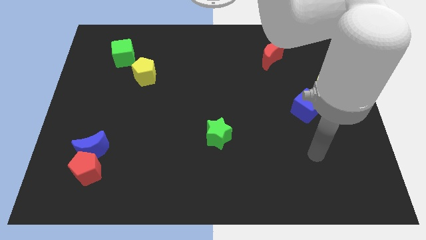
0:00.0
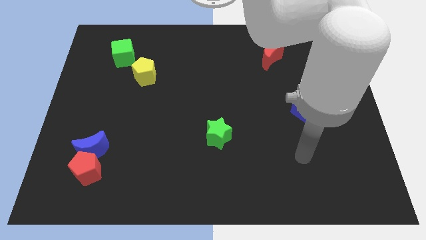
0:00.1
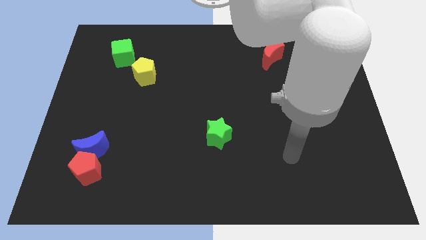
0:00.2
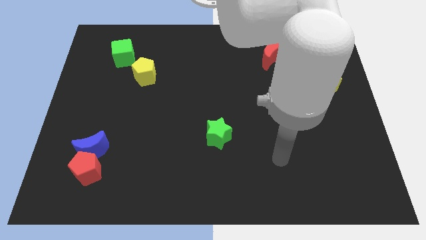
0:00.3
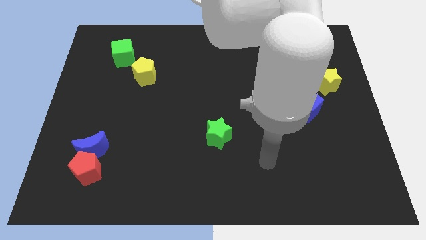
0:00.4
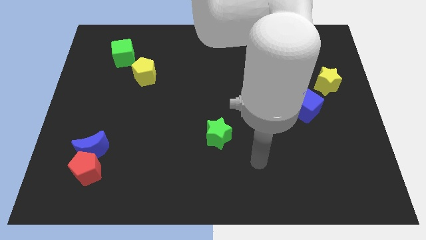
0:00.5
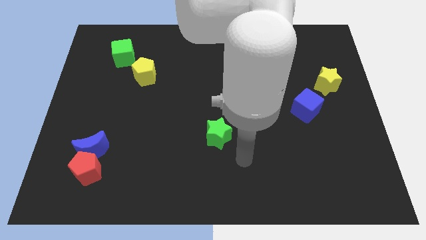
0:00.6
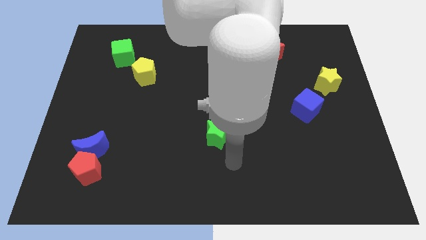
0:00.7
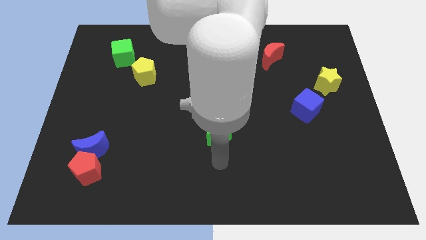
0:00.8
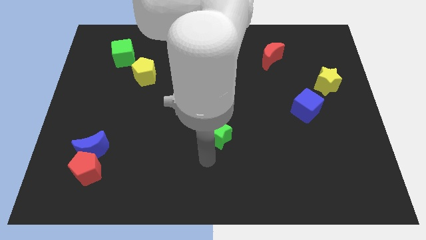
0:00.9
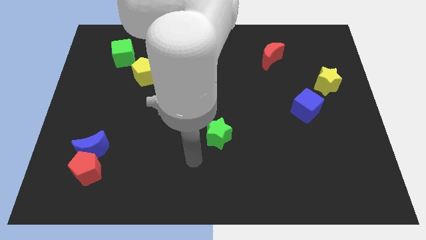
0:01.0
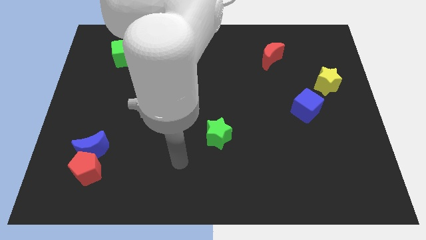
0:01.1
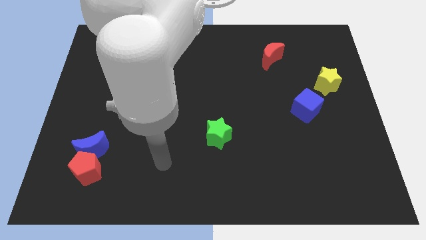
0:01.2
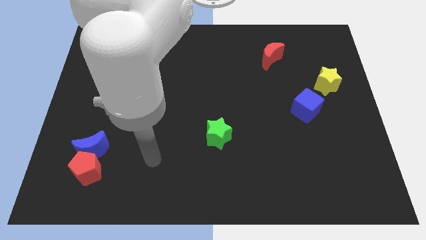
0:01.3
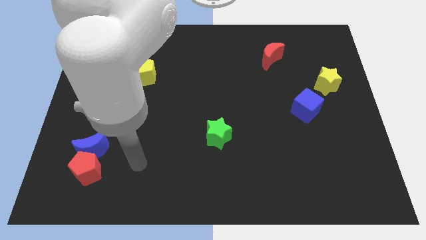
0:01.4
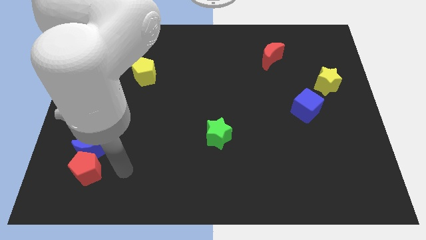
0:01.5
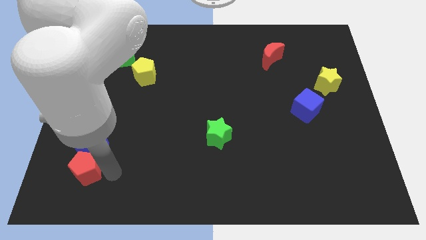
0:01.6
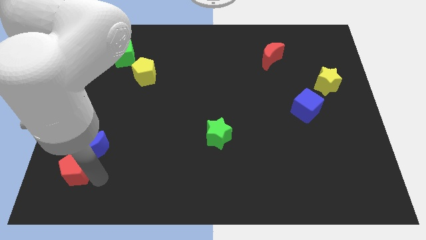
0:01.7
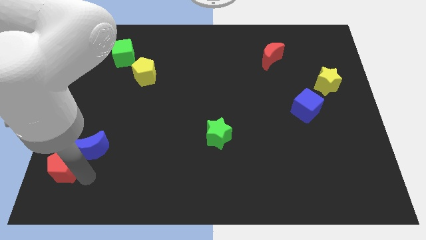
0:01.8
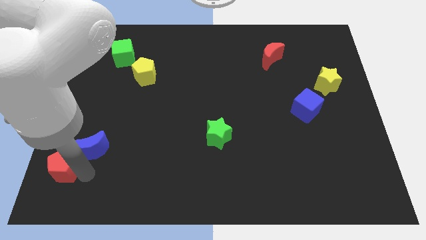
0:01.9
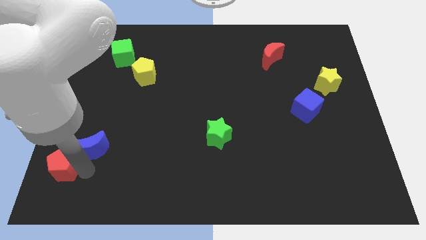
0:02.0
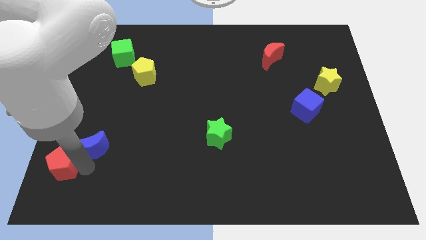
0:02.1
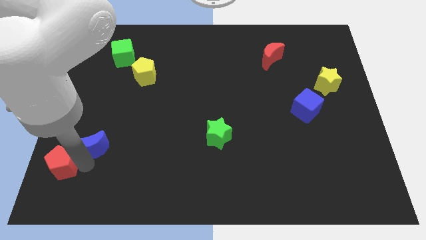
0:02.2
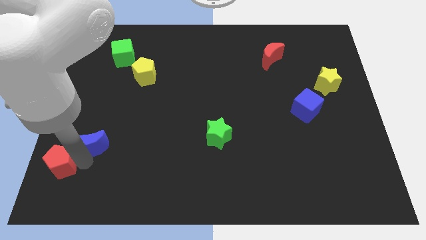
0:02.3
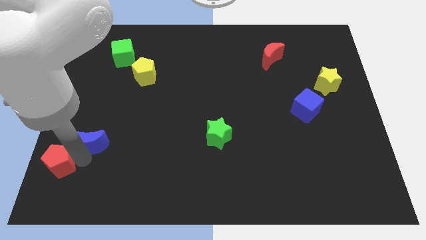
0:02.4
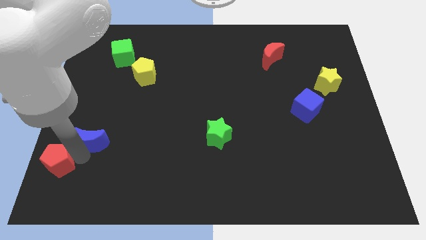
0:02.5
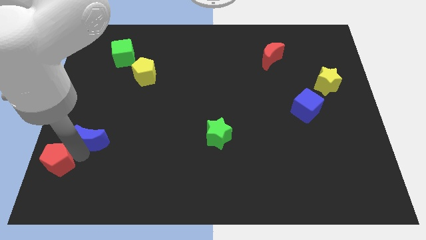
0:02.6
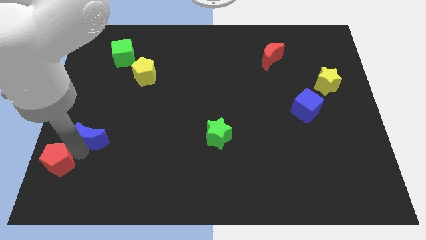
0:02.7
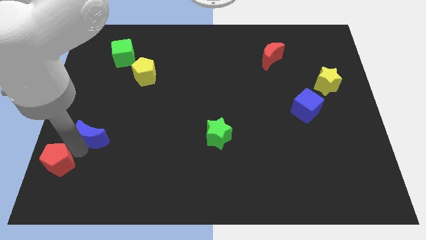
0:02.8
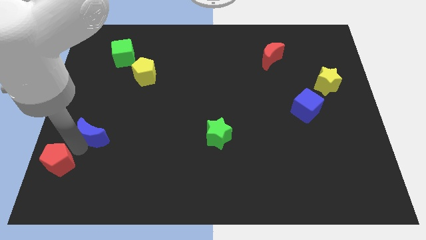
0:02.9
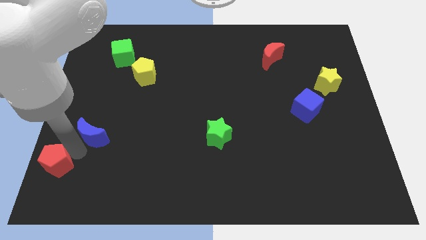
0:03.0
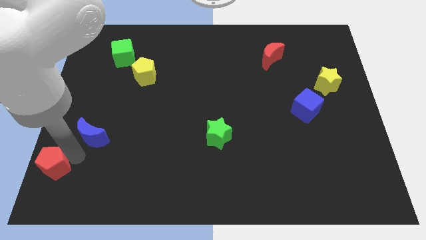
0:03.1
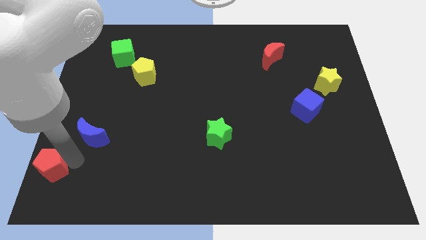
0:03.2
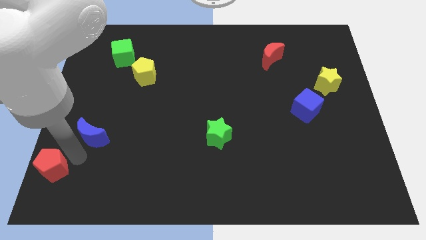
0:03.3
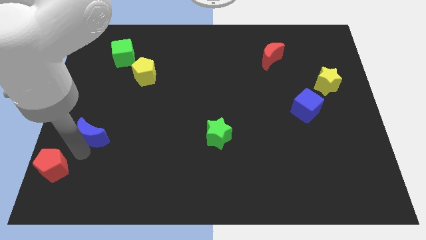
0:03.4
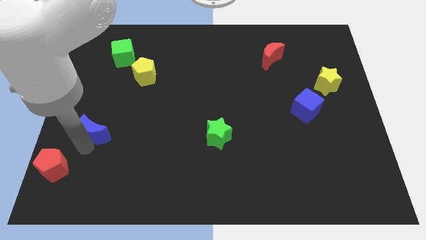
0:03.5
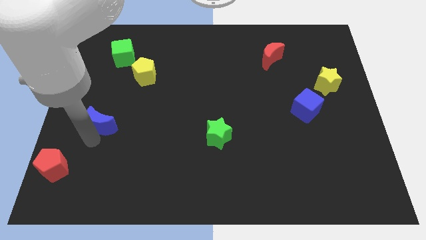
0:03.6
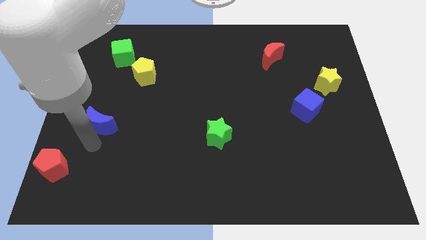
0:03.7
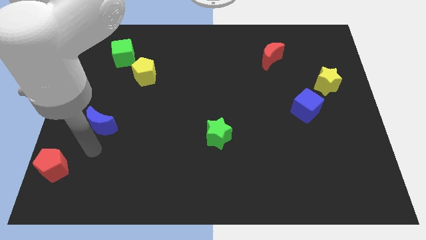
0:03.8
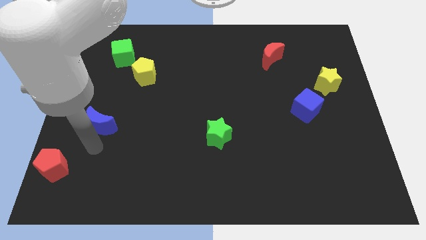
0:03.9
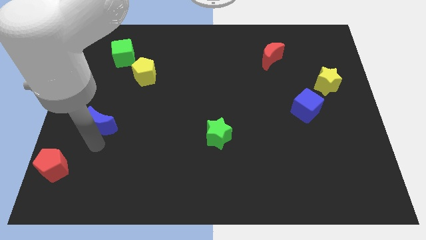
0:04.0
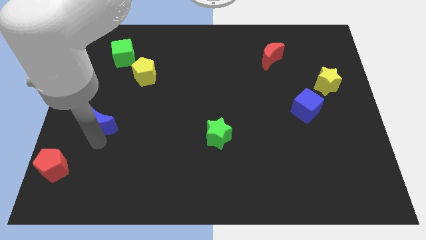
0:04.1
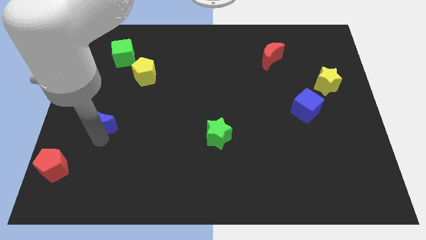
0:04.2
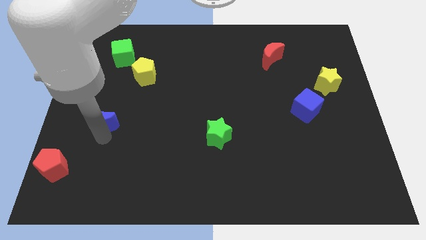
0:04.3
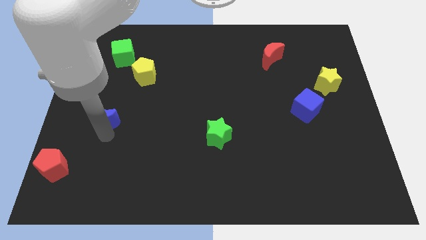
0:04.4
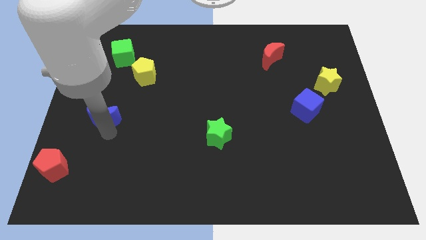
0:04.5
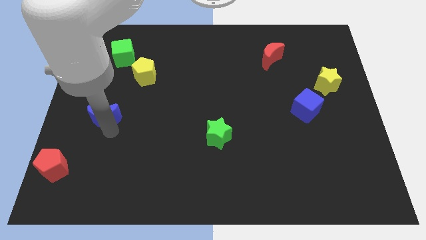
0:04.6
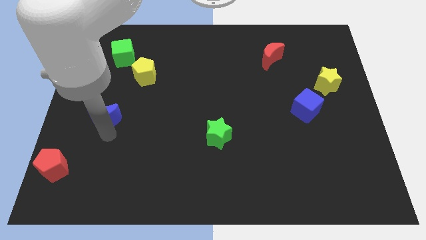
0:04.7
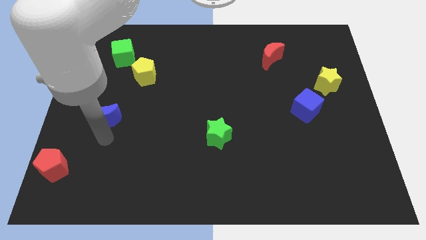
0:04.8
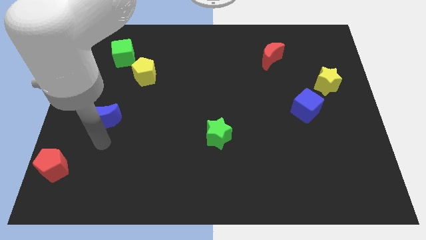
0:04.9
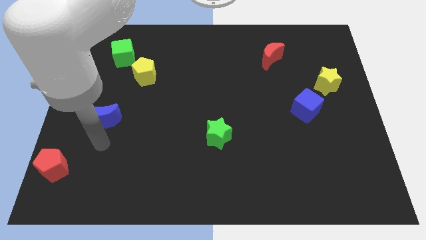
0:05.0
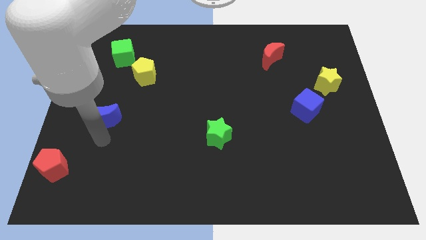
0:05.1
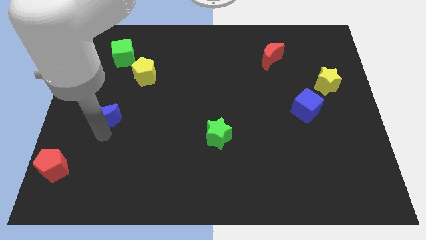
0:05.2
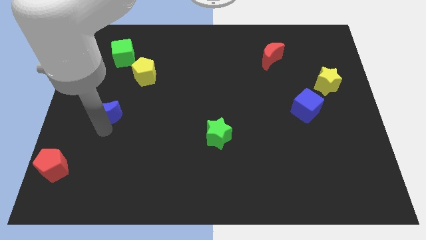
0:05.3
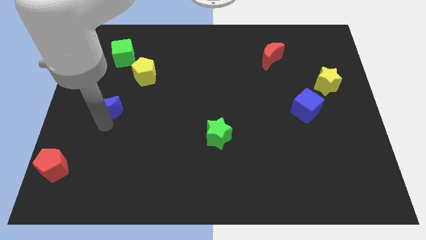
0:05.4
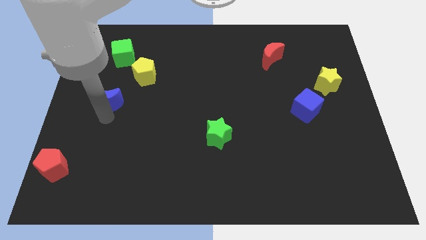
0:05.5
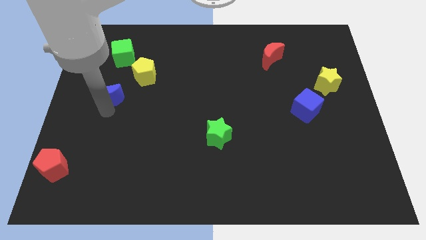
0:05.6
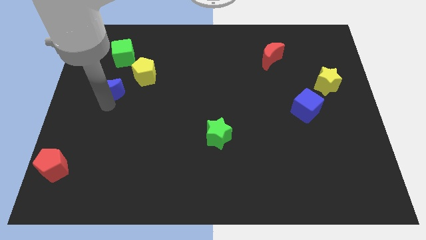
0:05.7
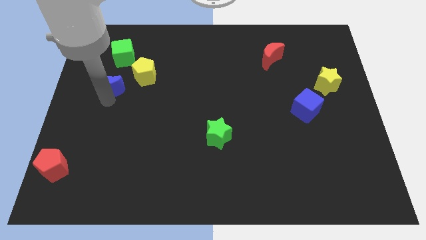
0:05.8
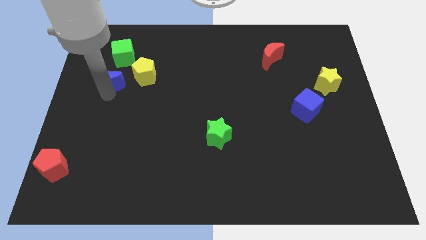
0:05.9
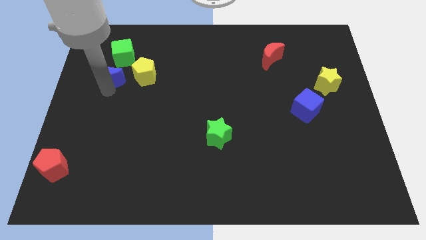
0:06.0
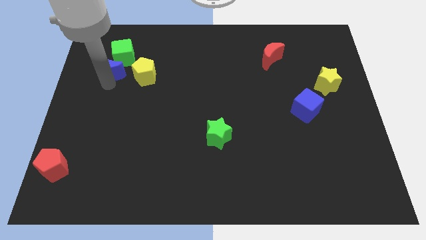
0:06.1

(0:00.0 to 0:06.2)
slide the blue moon next to the green cube

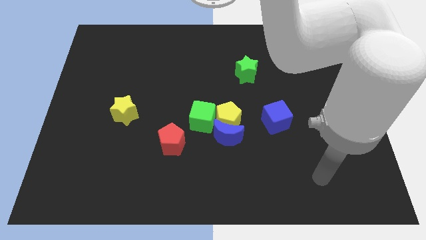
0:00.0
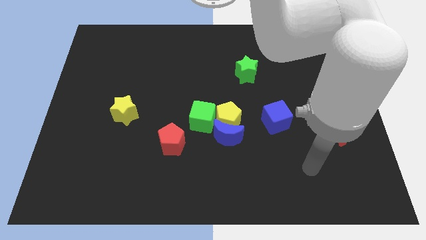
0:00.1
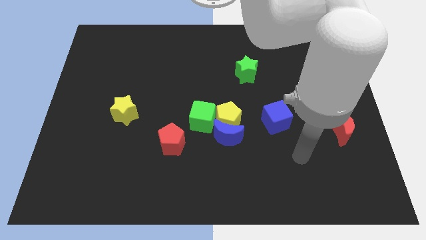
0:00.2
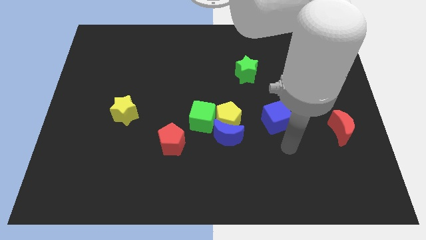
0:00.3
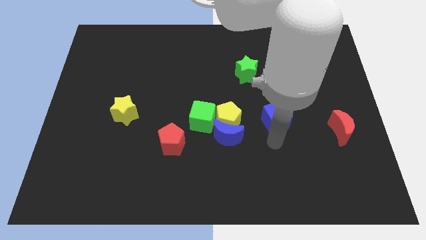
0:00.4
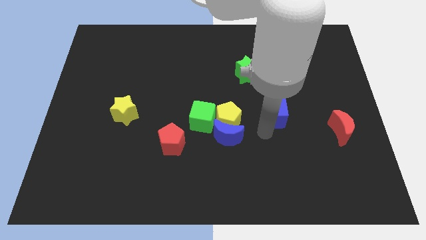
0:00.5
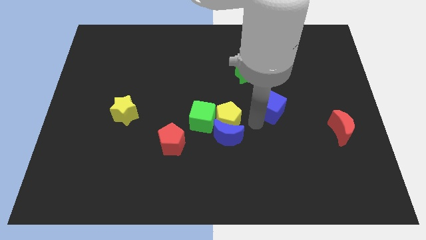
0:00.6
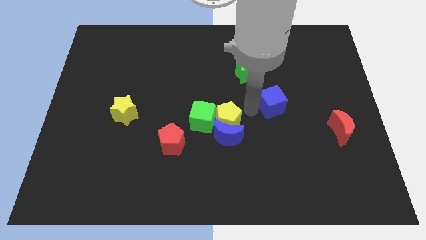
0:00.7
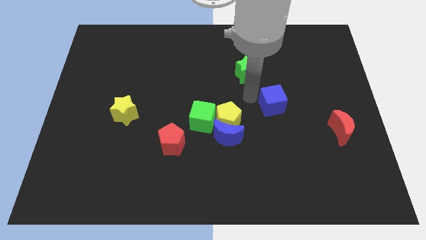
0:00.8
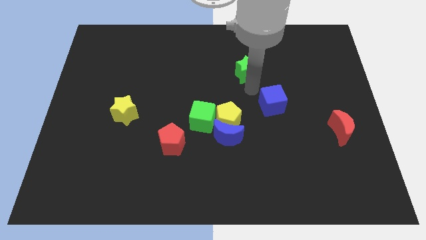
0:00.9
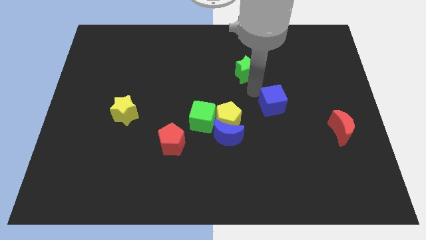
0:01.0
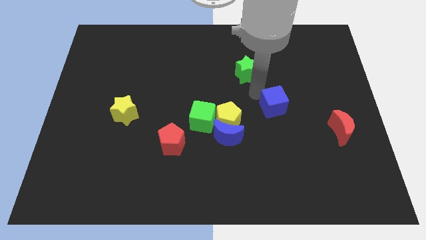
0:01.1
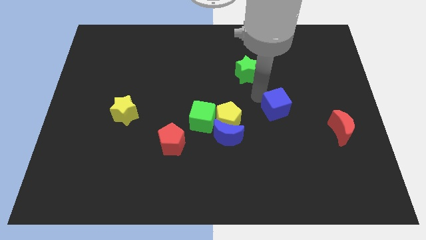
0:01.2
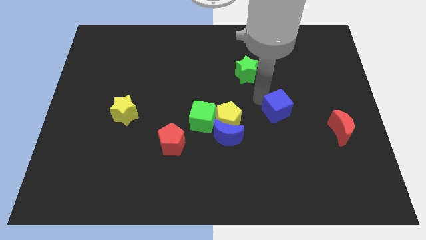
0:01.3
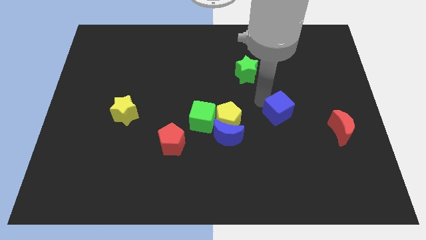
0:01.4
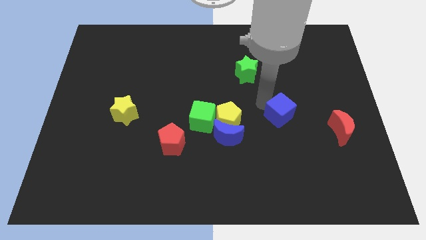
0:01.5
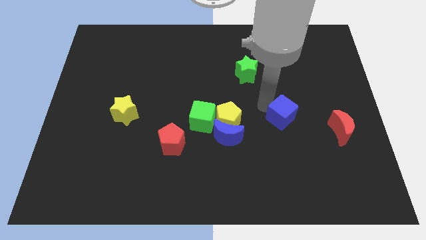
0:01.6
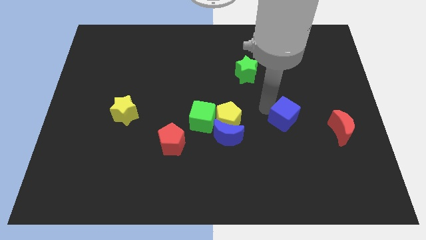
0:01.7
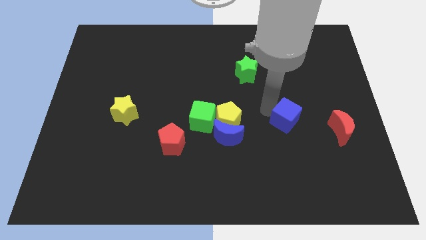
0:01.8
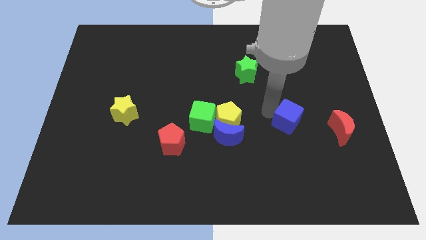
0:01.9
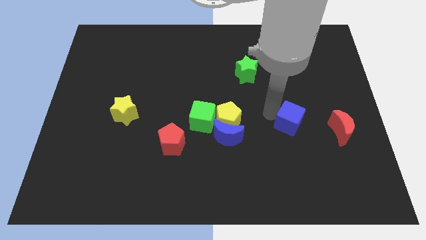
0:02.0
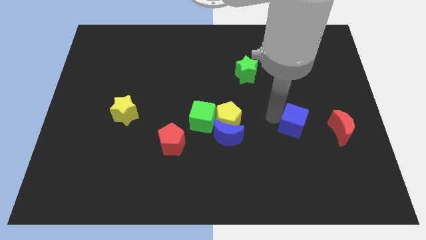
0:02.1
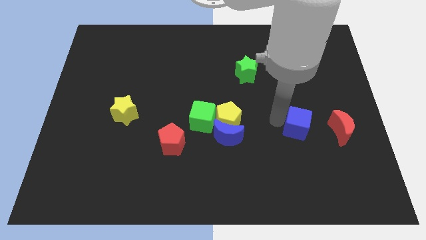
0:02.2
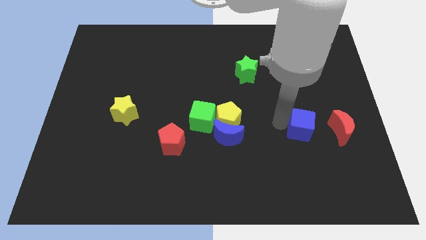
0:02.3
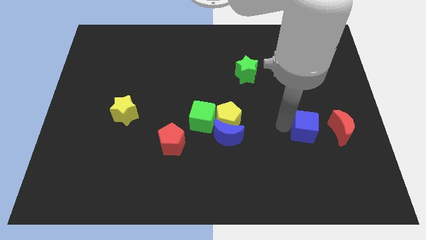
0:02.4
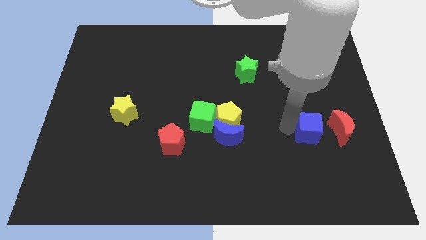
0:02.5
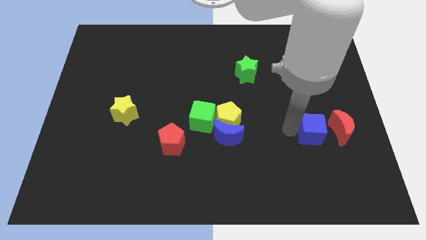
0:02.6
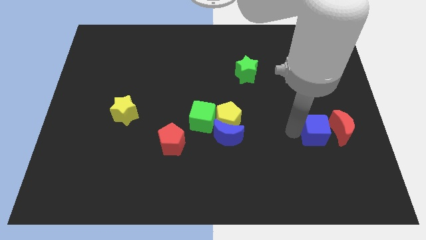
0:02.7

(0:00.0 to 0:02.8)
move the blue cube to the red moon
